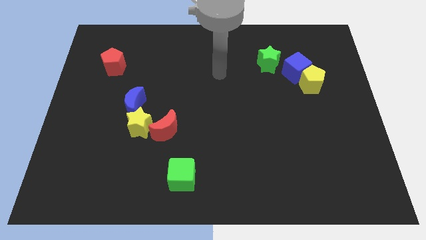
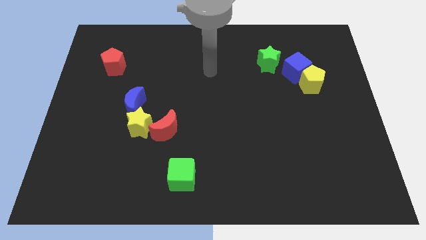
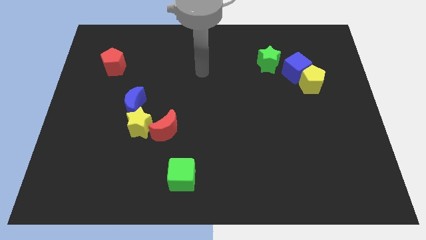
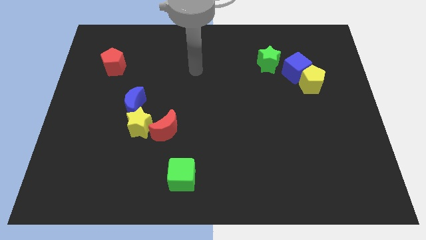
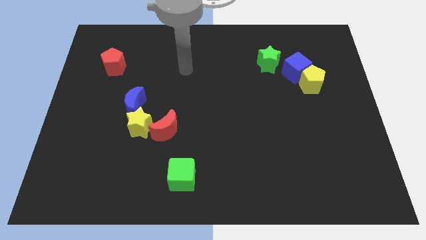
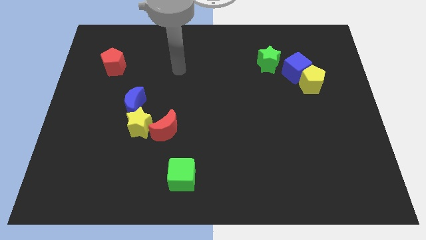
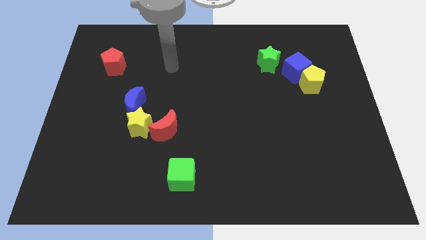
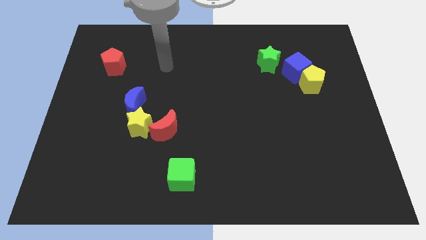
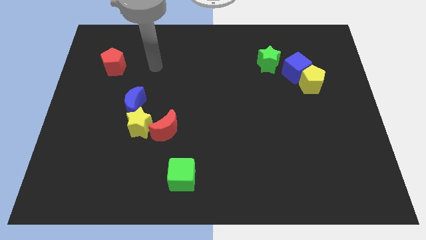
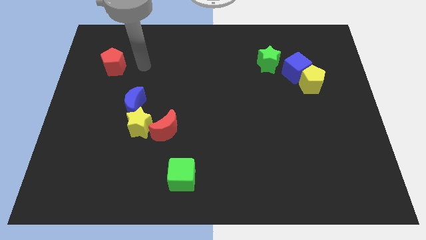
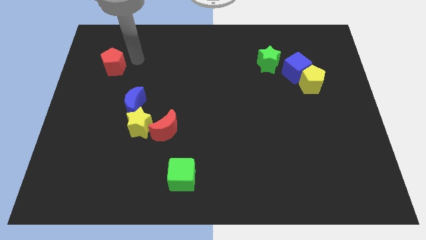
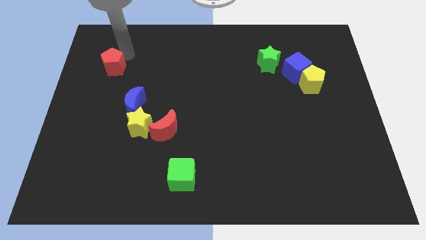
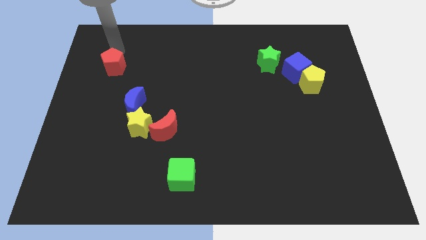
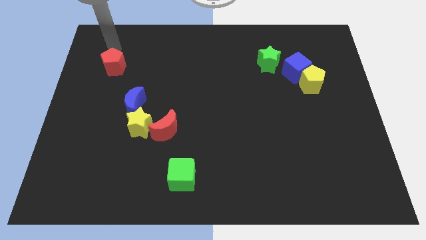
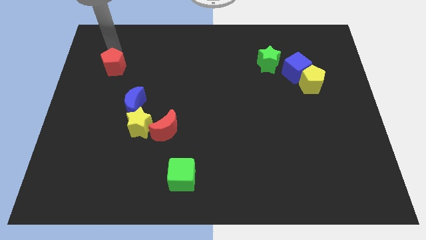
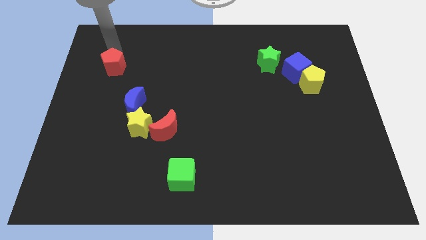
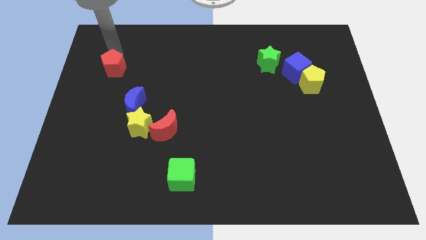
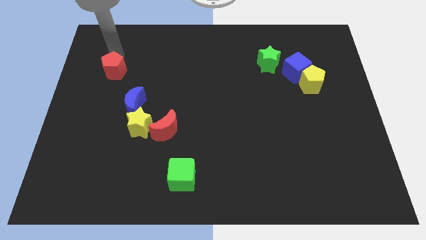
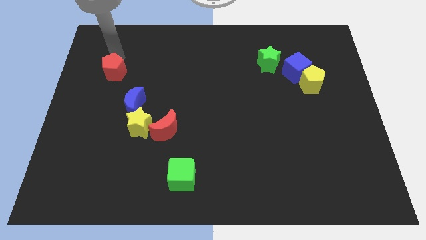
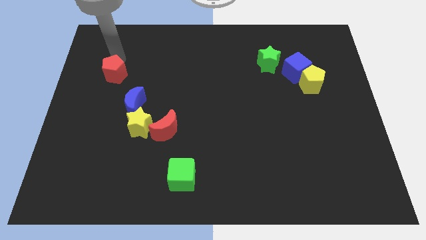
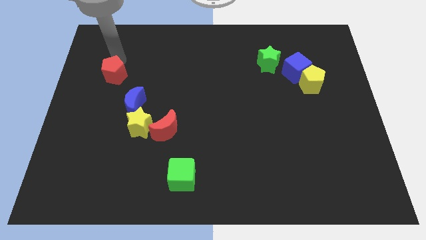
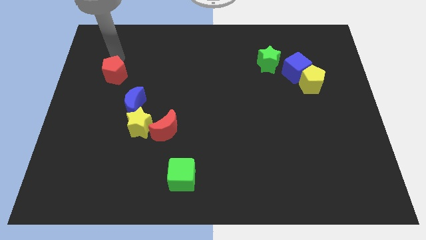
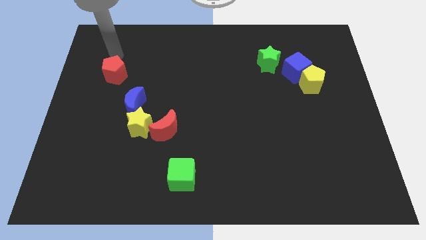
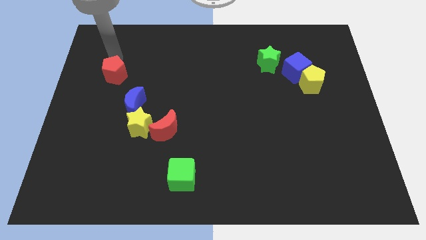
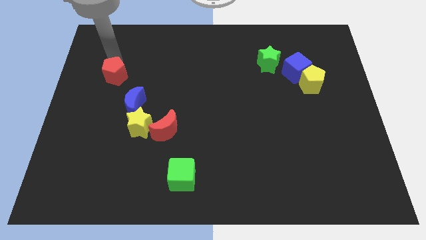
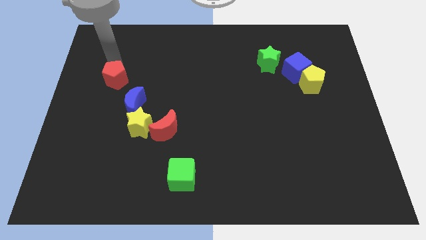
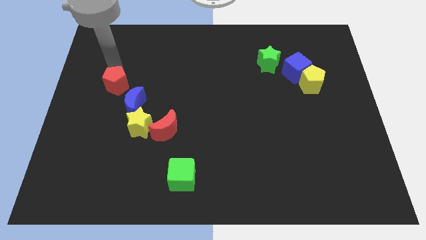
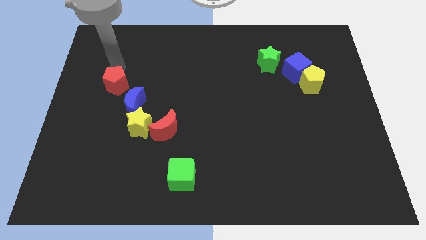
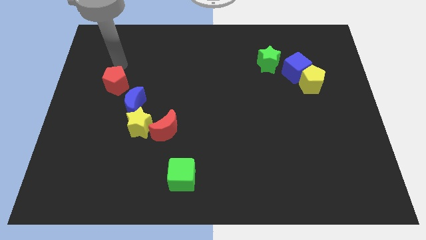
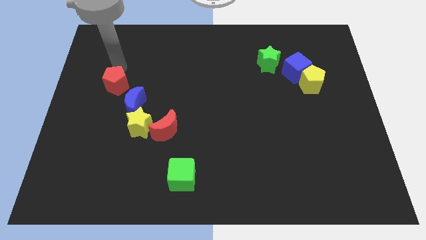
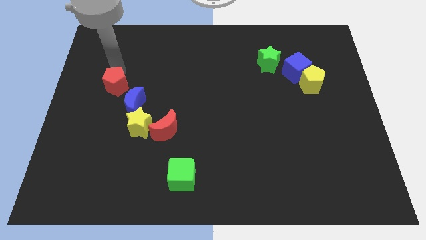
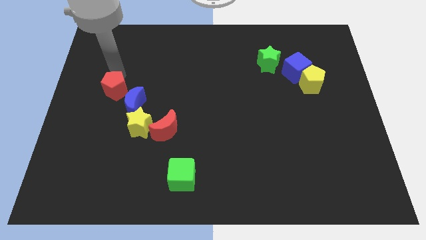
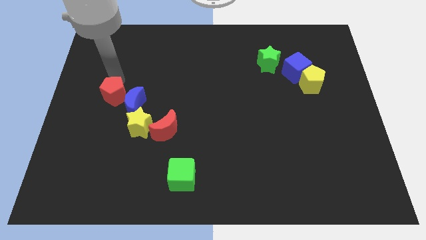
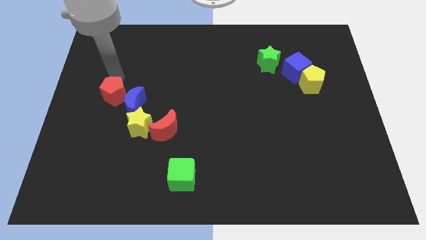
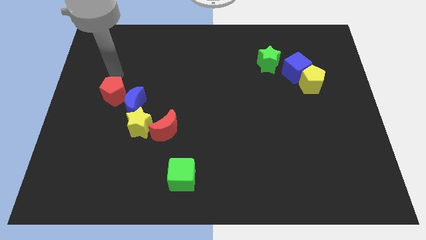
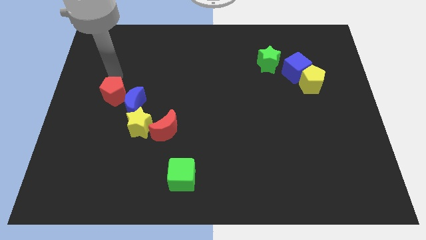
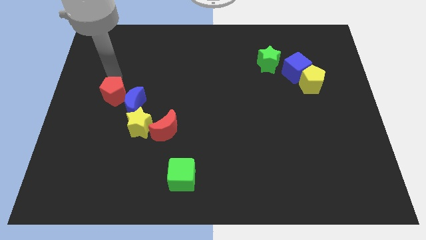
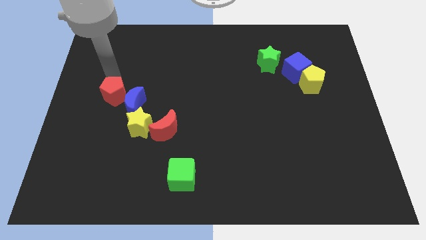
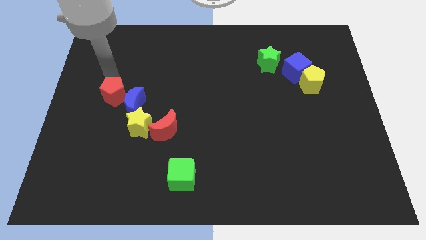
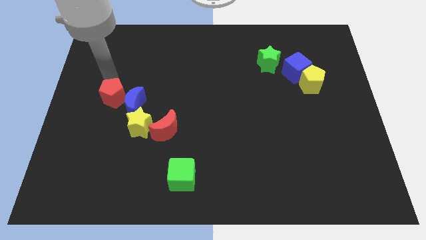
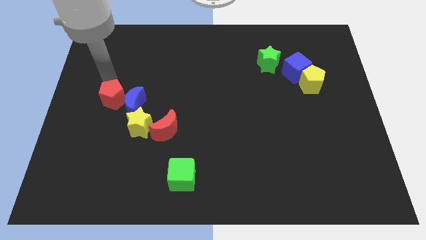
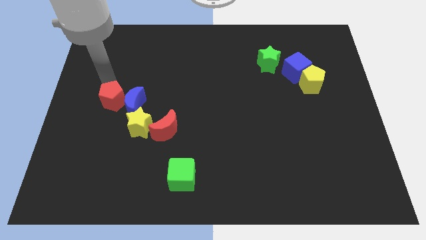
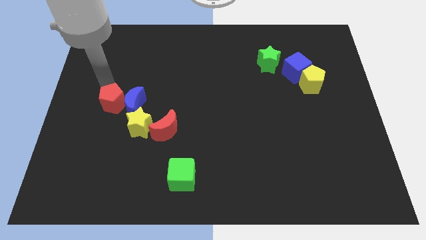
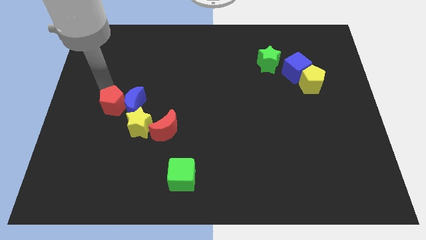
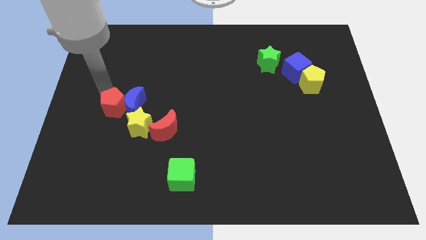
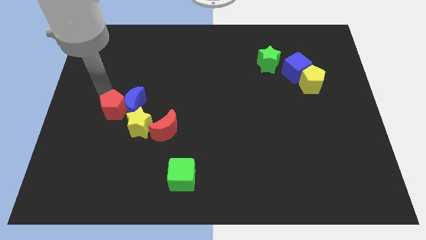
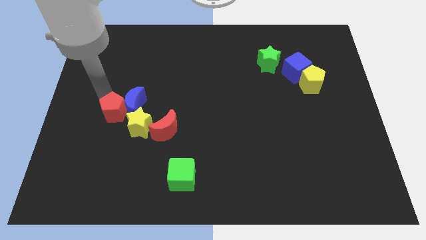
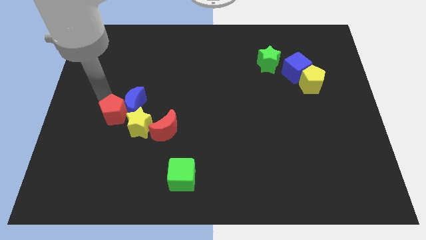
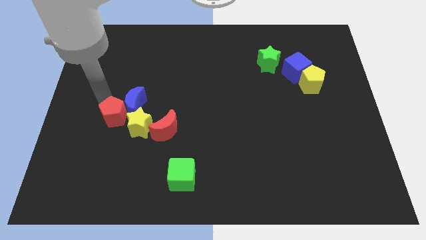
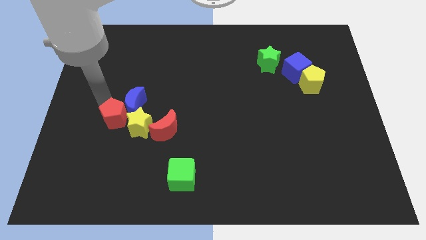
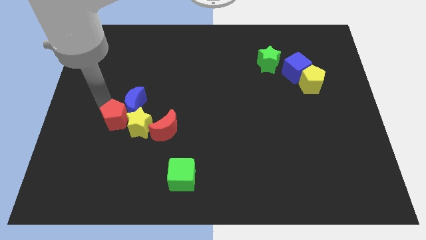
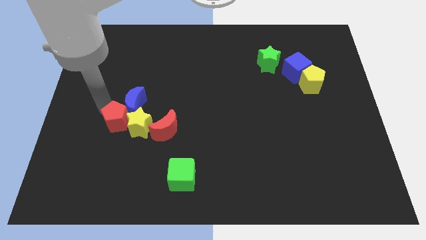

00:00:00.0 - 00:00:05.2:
put the red pentagon to the yellow star

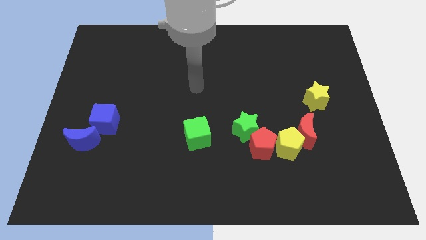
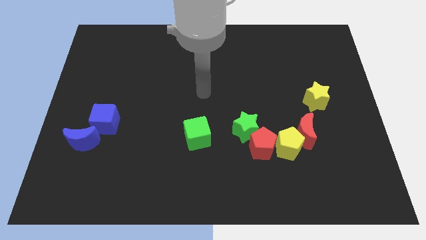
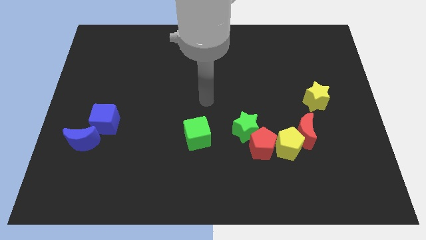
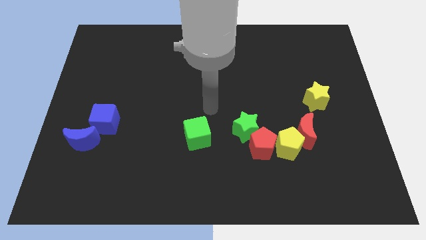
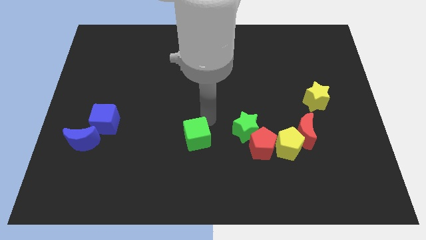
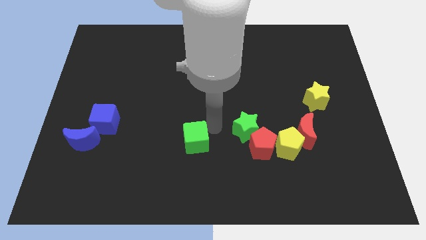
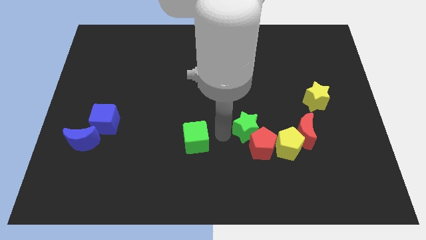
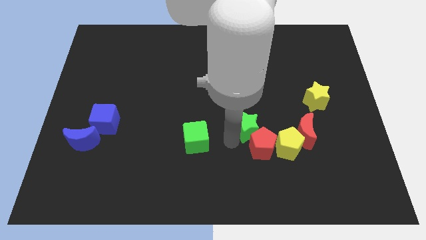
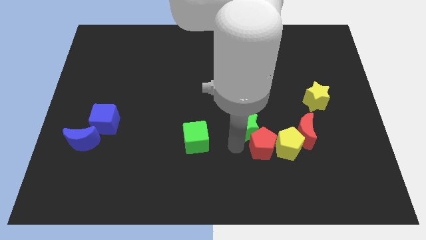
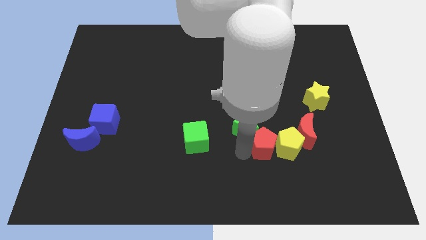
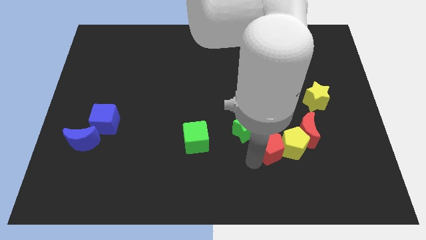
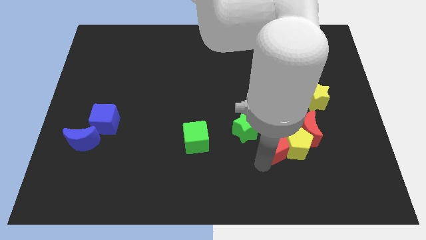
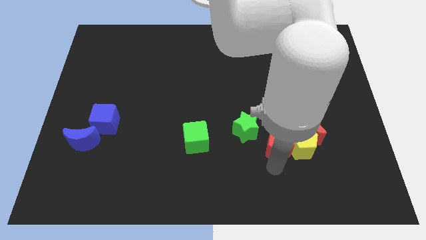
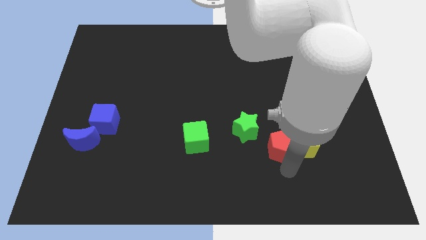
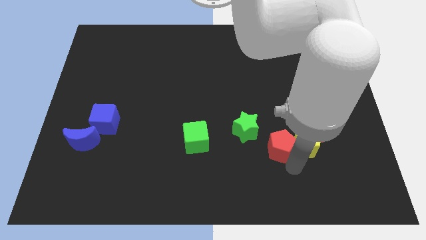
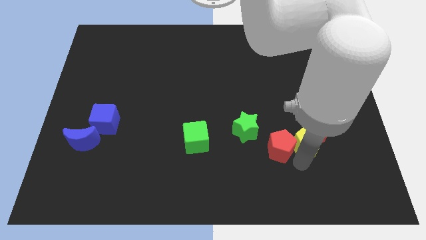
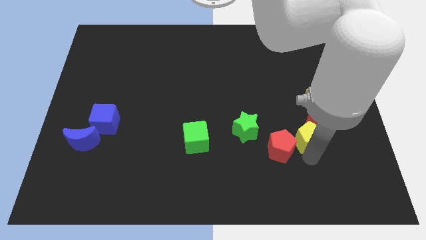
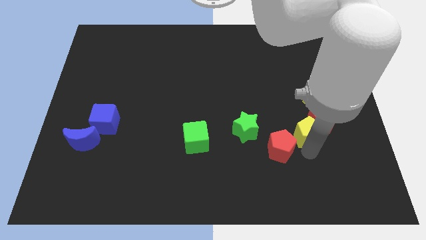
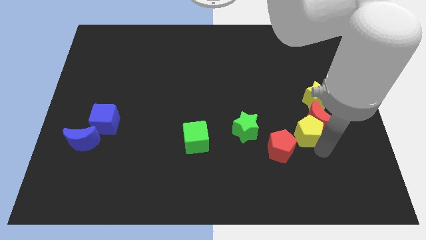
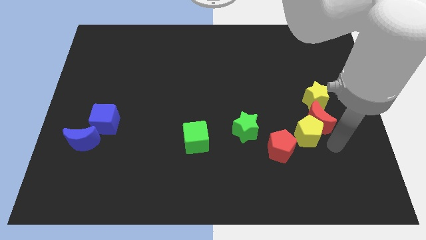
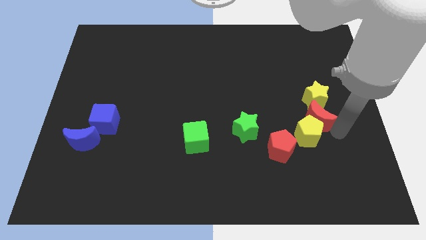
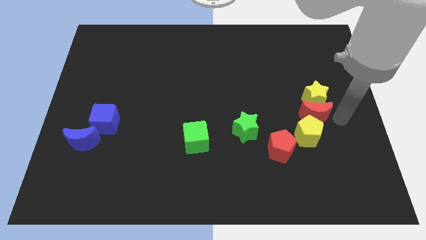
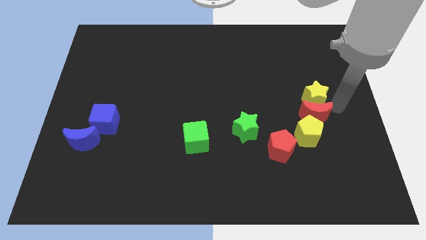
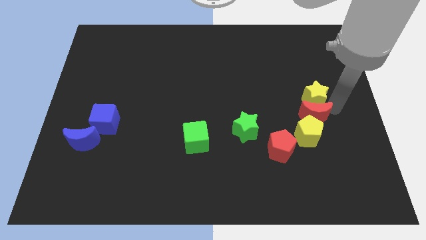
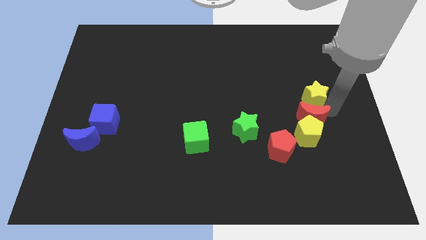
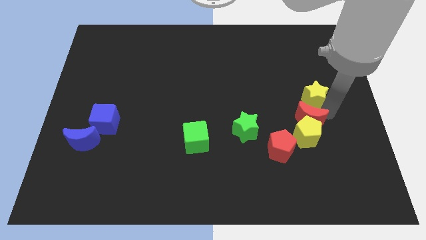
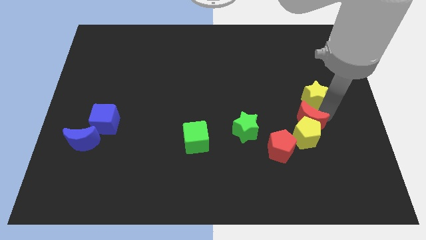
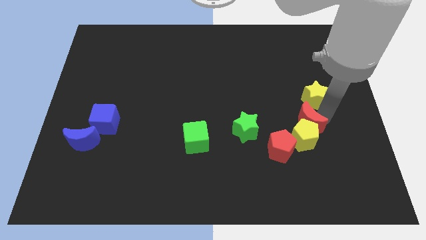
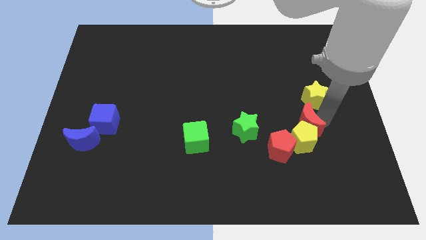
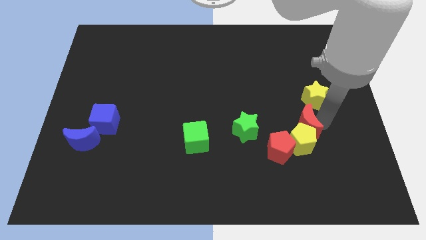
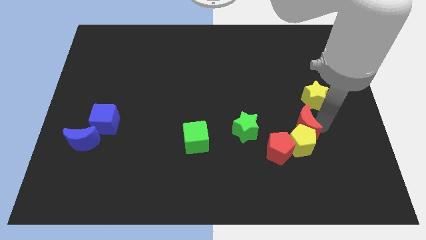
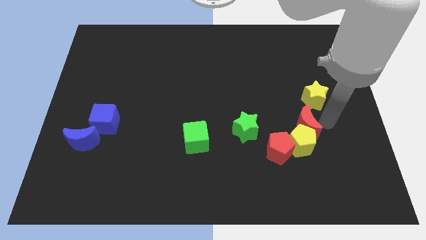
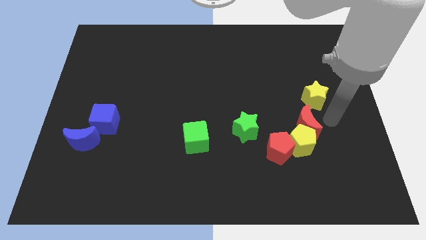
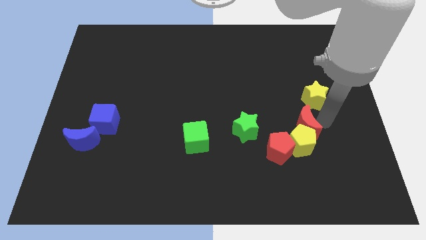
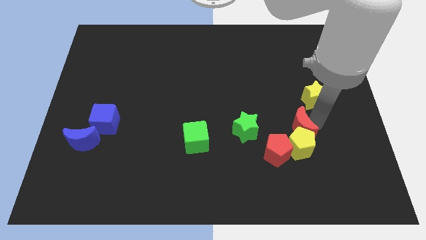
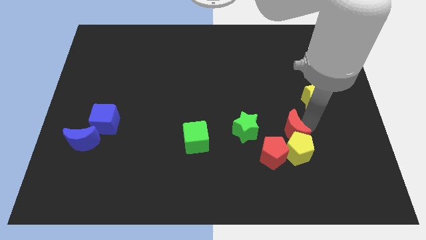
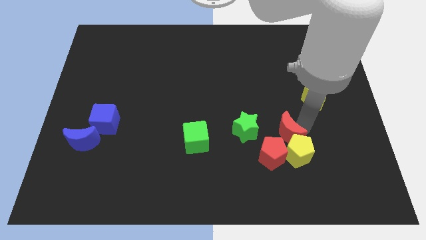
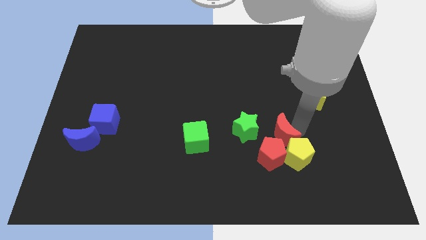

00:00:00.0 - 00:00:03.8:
push the red moon towards the red pentagon
